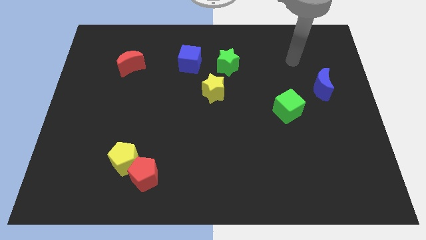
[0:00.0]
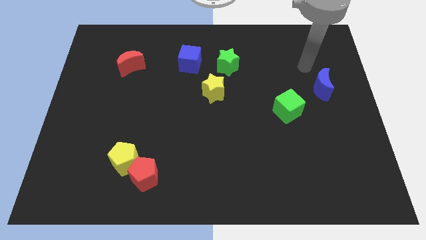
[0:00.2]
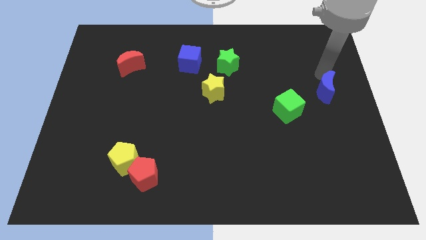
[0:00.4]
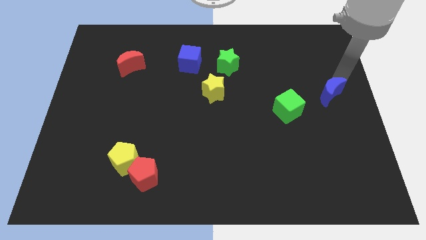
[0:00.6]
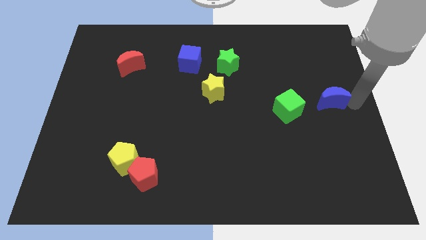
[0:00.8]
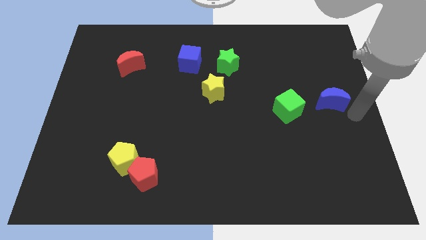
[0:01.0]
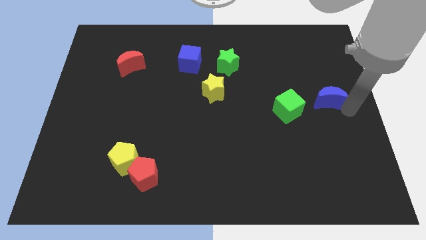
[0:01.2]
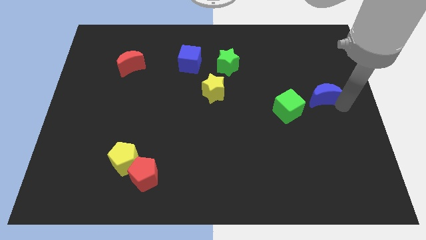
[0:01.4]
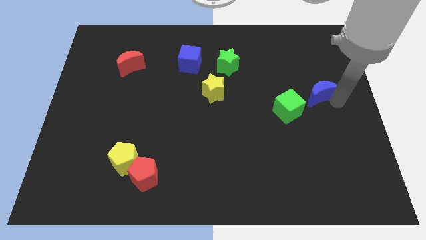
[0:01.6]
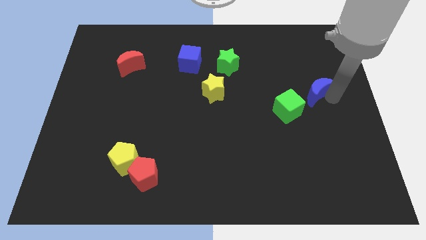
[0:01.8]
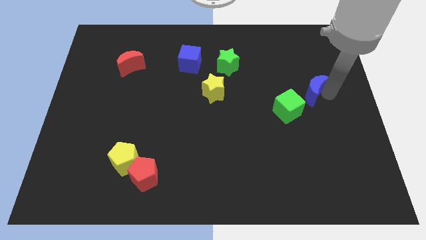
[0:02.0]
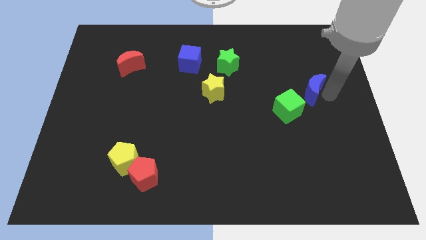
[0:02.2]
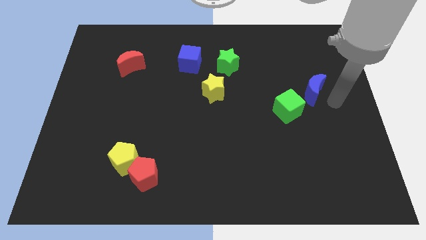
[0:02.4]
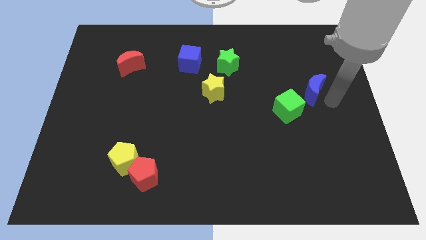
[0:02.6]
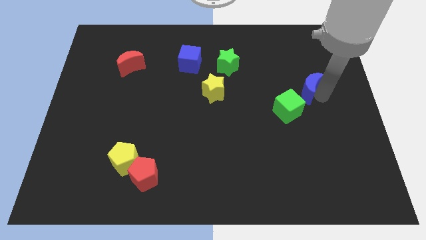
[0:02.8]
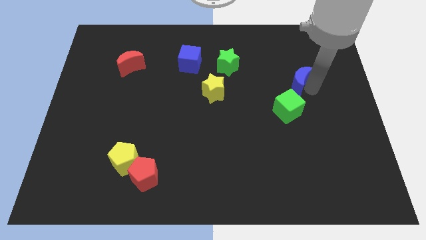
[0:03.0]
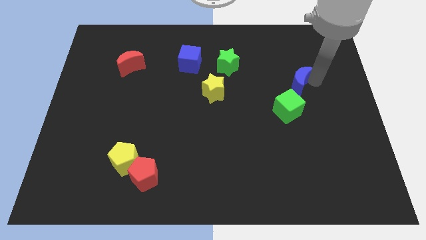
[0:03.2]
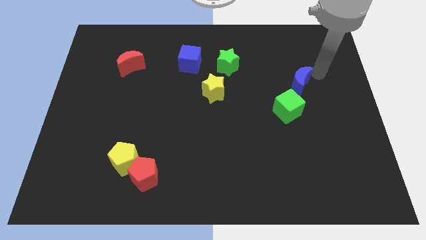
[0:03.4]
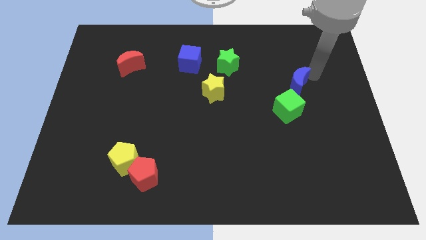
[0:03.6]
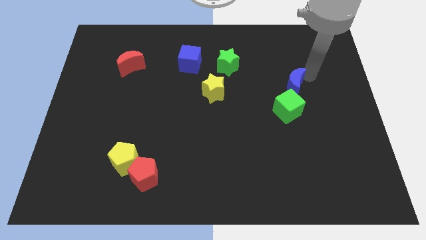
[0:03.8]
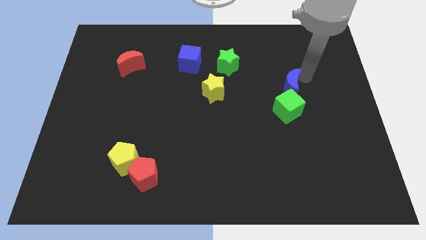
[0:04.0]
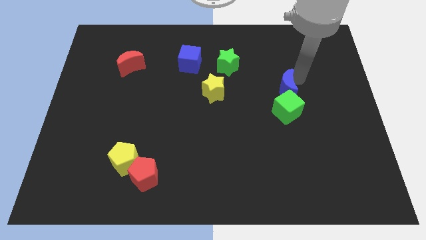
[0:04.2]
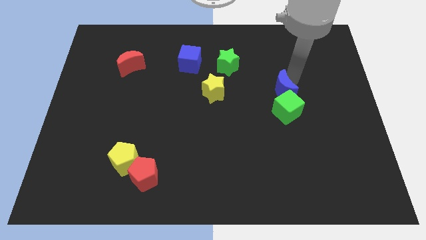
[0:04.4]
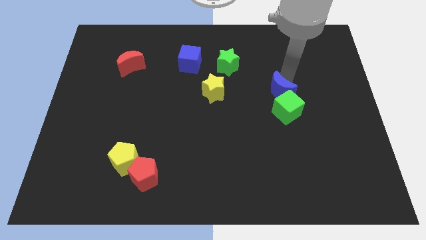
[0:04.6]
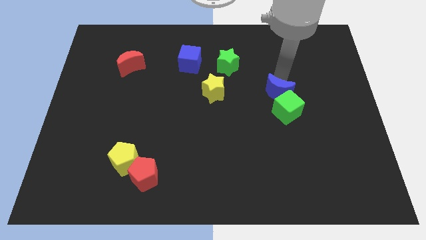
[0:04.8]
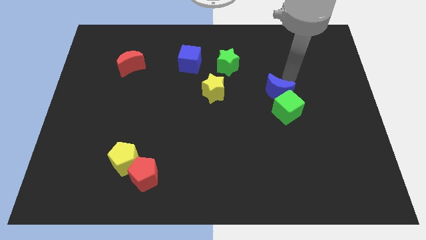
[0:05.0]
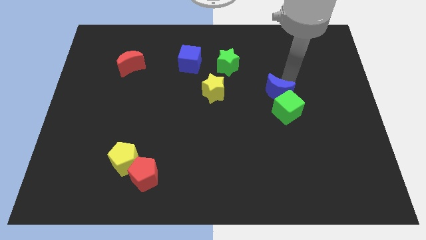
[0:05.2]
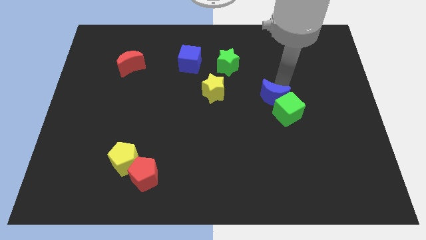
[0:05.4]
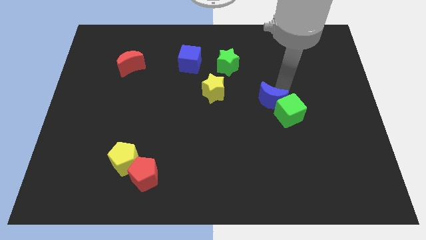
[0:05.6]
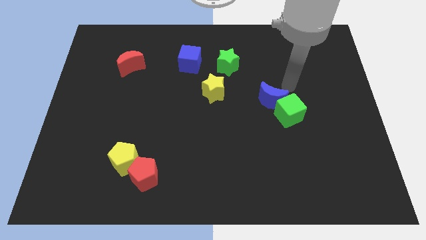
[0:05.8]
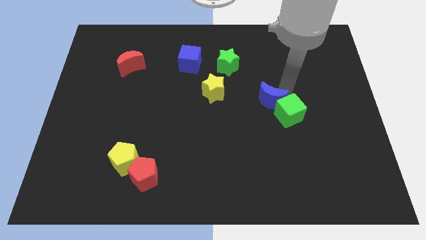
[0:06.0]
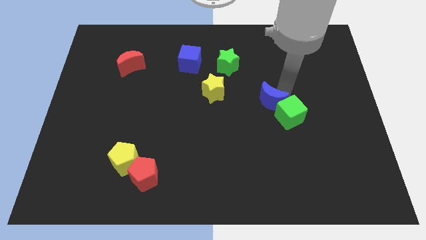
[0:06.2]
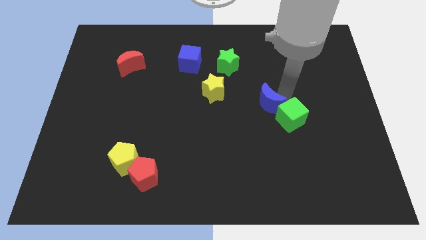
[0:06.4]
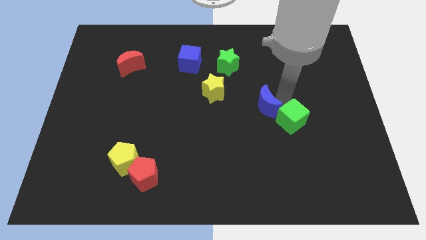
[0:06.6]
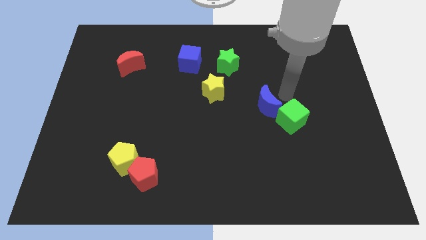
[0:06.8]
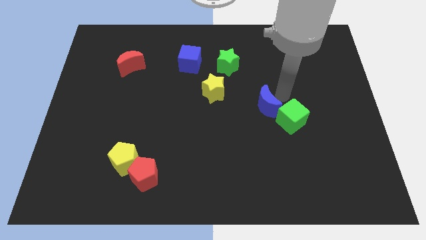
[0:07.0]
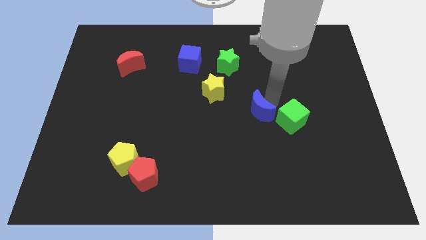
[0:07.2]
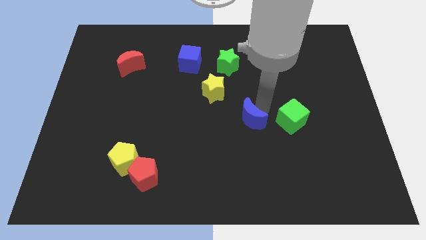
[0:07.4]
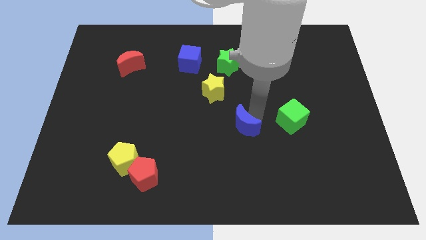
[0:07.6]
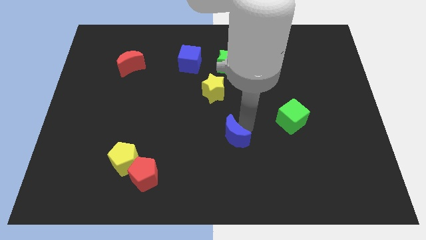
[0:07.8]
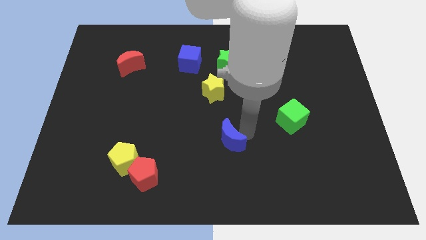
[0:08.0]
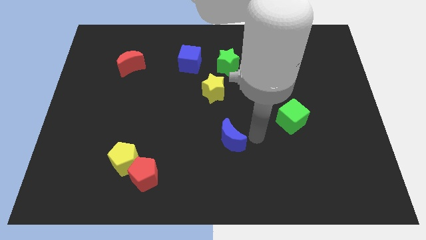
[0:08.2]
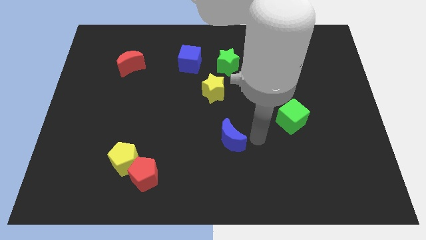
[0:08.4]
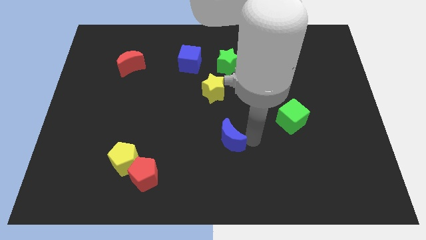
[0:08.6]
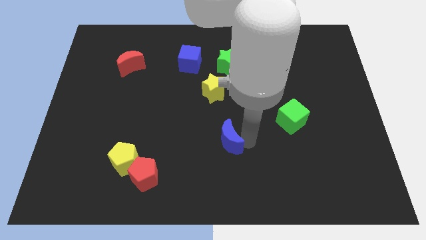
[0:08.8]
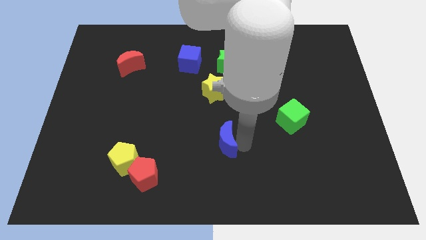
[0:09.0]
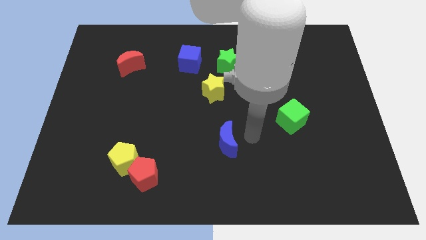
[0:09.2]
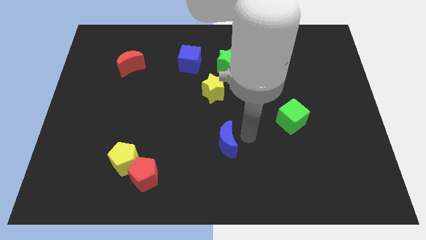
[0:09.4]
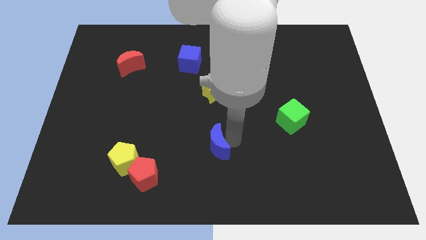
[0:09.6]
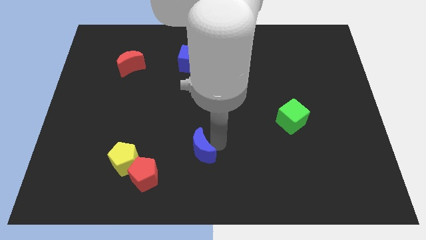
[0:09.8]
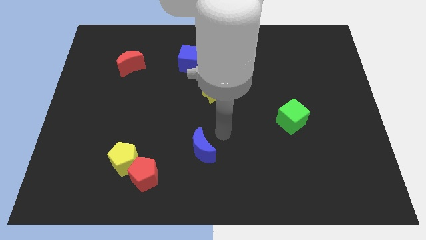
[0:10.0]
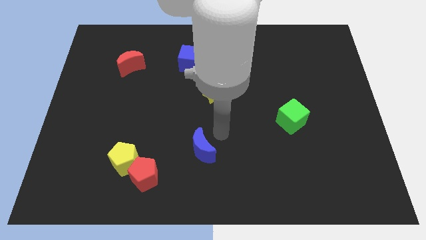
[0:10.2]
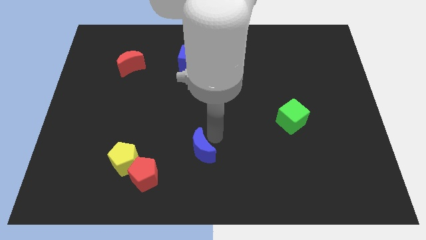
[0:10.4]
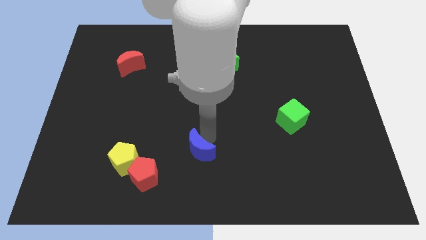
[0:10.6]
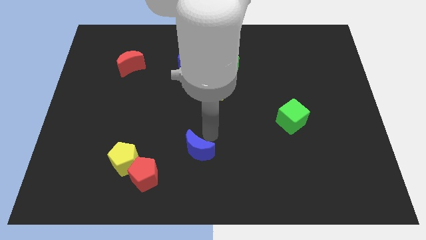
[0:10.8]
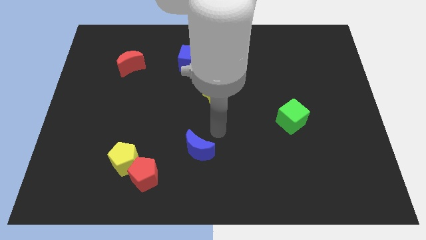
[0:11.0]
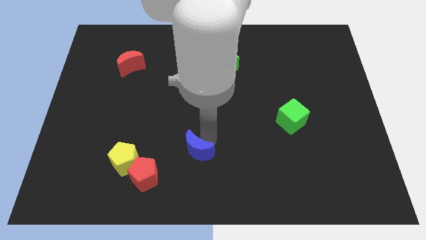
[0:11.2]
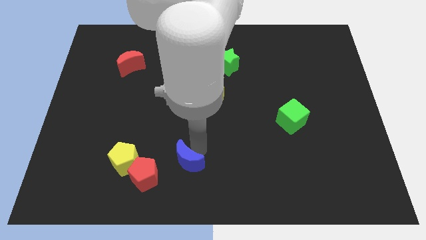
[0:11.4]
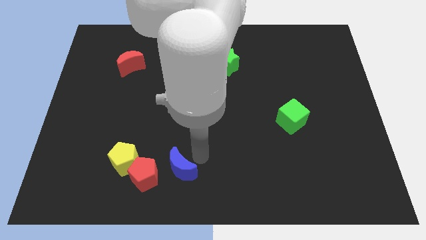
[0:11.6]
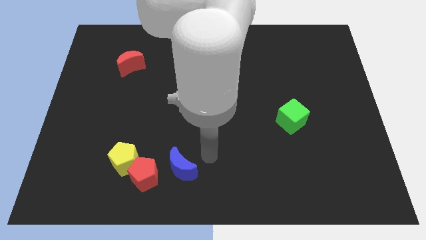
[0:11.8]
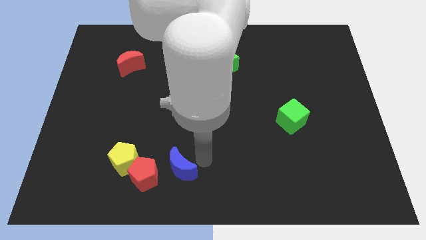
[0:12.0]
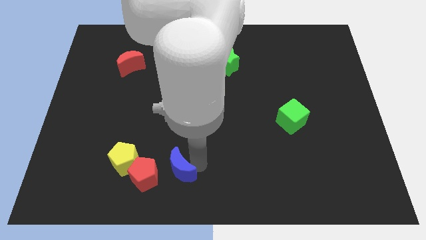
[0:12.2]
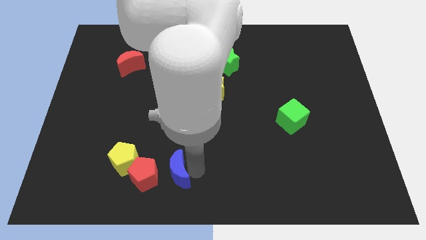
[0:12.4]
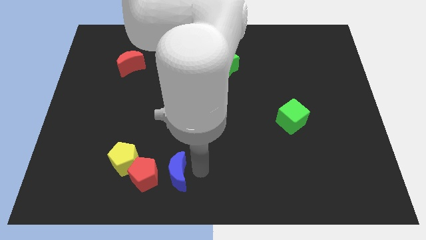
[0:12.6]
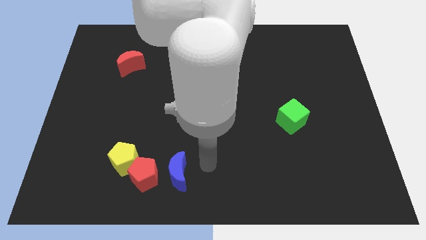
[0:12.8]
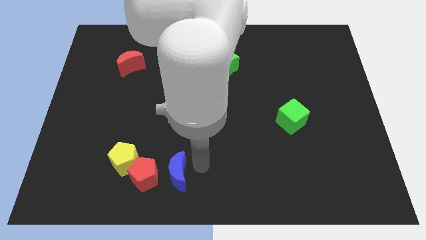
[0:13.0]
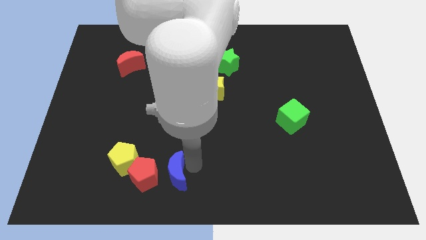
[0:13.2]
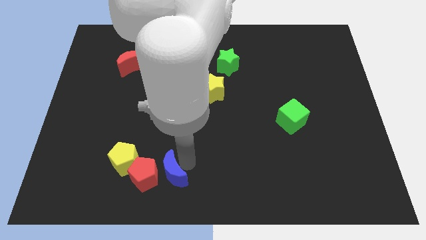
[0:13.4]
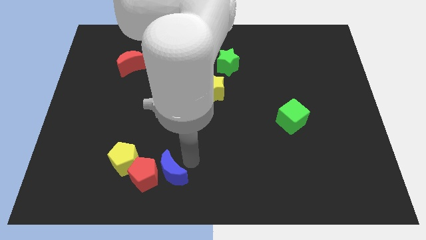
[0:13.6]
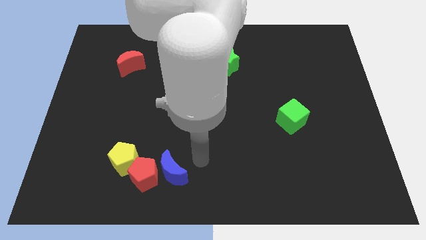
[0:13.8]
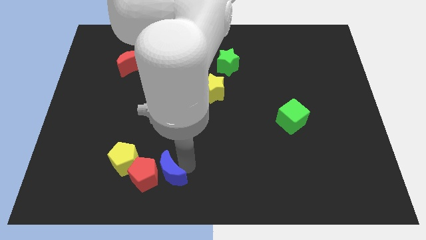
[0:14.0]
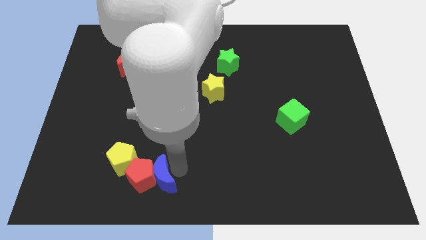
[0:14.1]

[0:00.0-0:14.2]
push the blue moon diagonally down and to the right of the yellow pentagon
